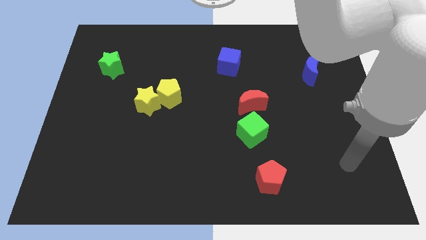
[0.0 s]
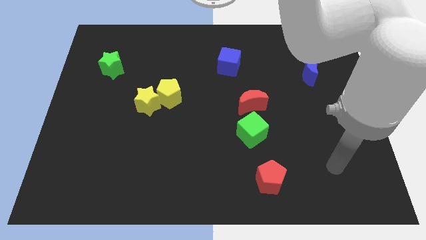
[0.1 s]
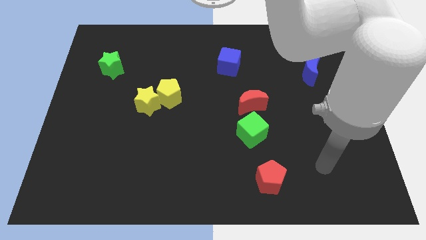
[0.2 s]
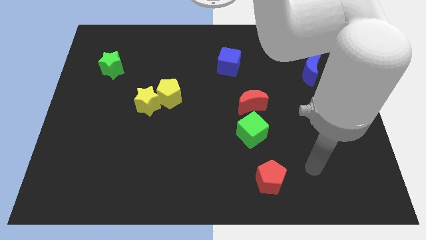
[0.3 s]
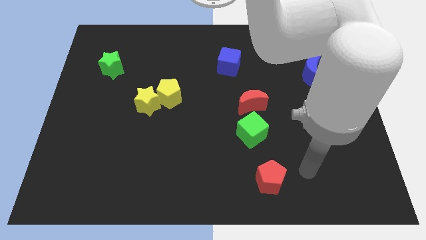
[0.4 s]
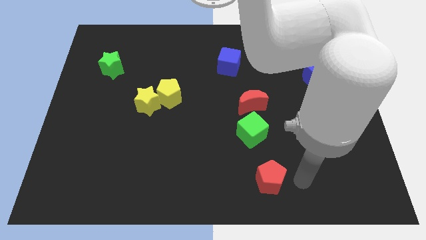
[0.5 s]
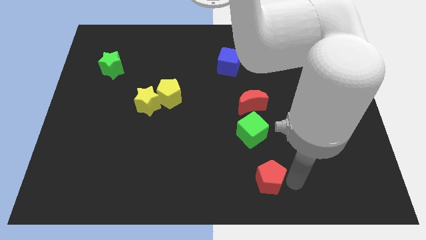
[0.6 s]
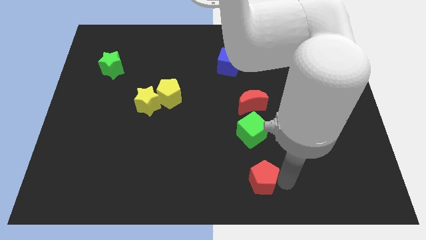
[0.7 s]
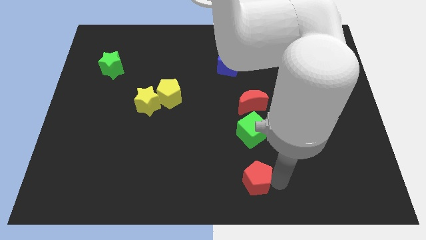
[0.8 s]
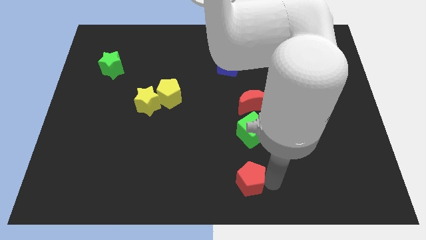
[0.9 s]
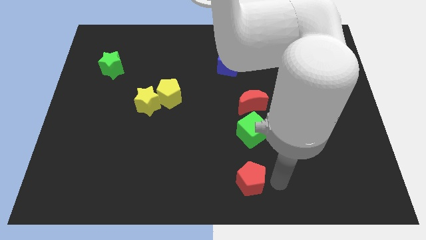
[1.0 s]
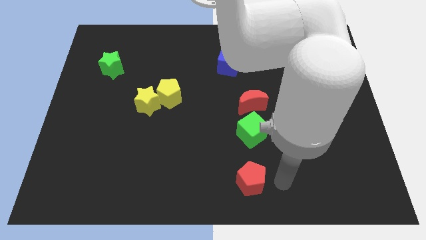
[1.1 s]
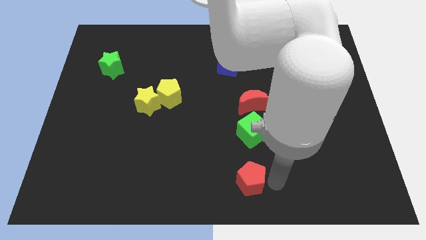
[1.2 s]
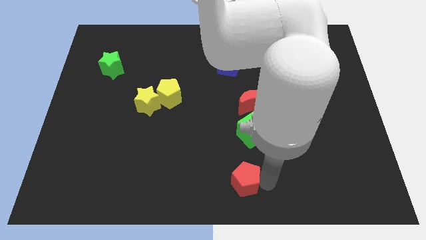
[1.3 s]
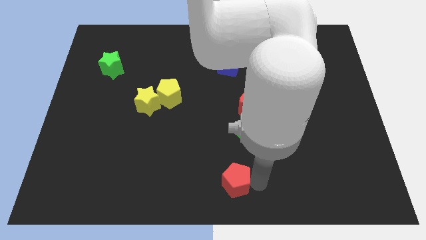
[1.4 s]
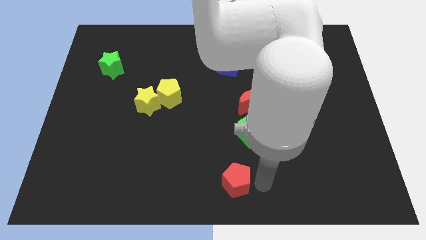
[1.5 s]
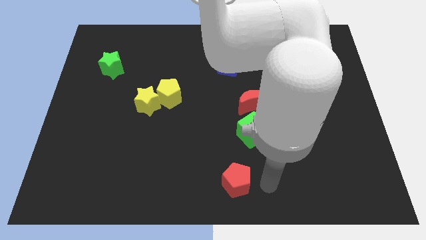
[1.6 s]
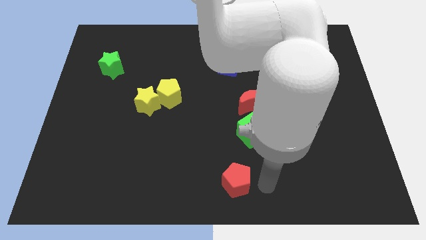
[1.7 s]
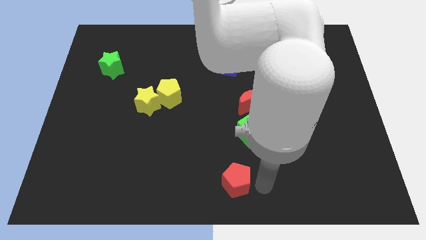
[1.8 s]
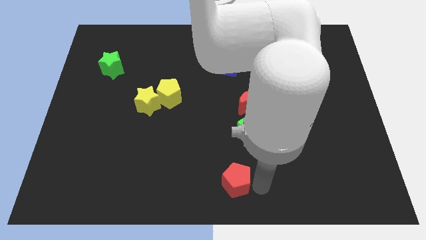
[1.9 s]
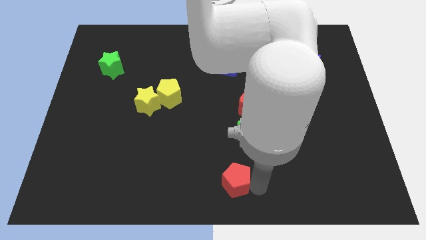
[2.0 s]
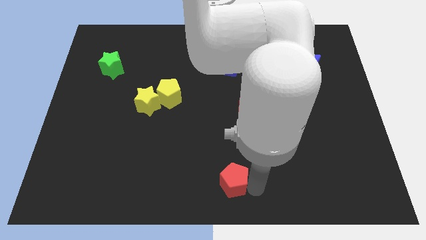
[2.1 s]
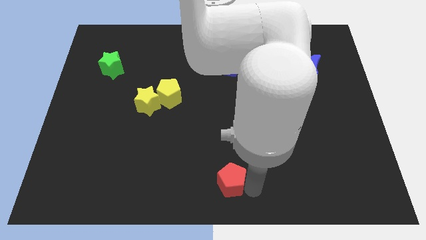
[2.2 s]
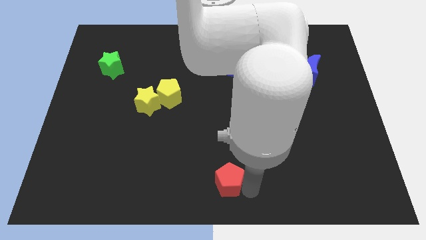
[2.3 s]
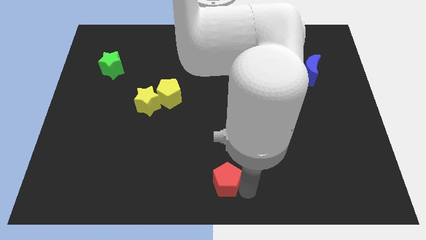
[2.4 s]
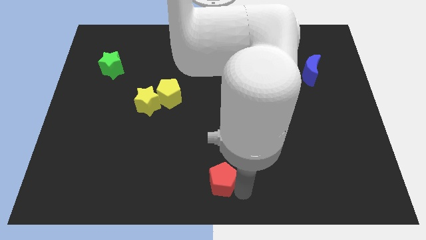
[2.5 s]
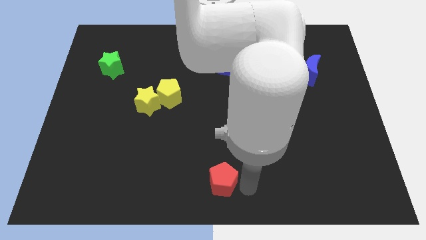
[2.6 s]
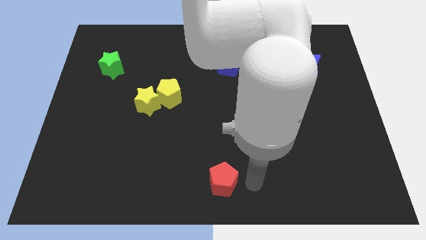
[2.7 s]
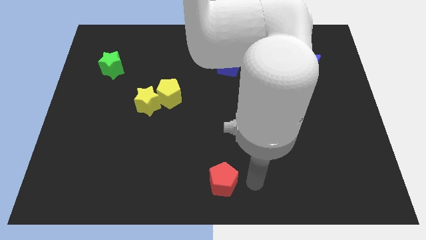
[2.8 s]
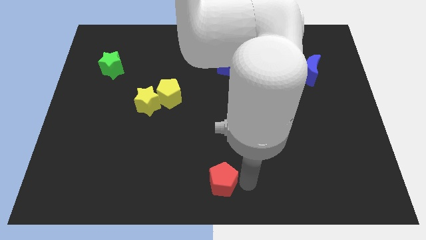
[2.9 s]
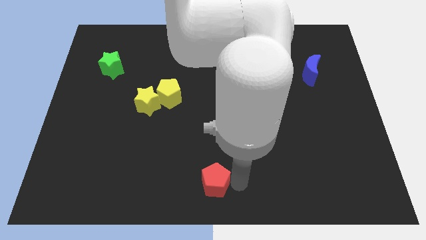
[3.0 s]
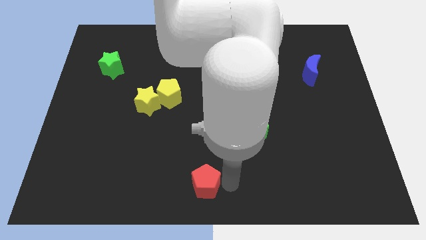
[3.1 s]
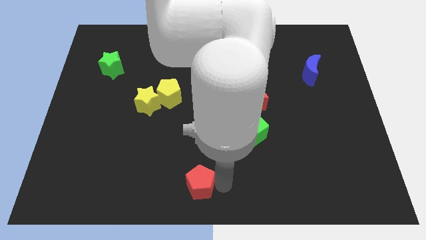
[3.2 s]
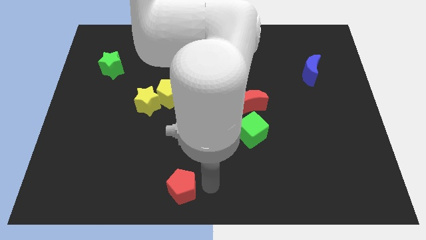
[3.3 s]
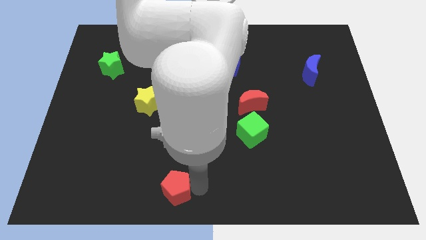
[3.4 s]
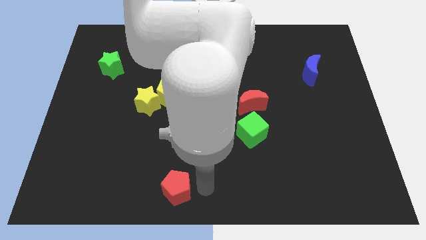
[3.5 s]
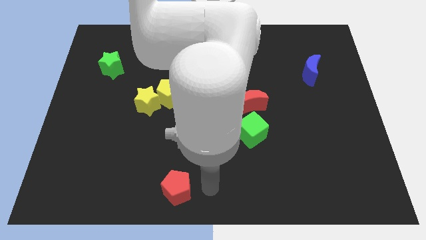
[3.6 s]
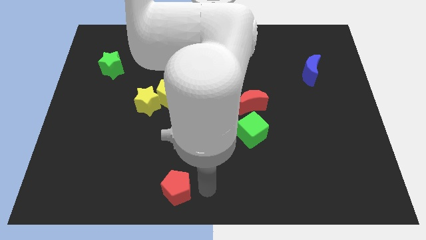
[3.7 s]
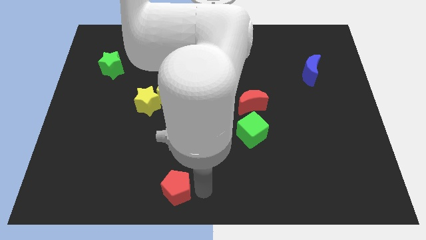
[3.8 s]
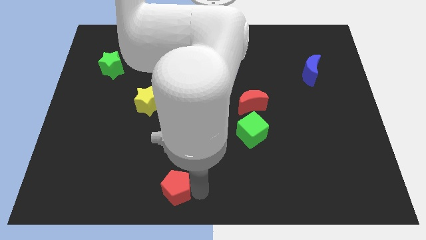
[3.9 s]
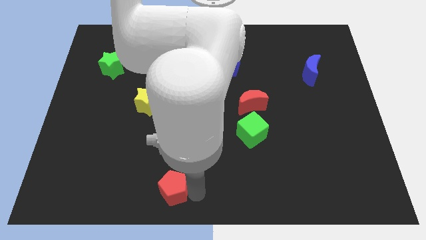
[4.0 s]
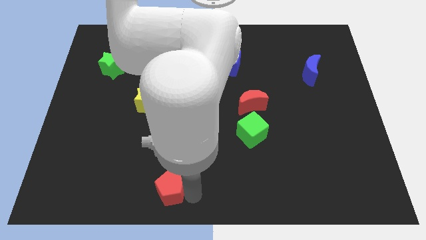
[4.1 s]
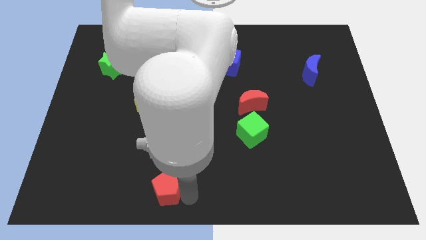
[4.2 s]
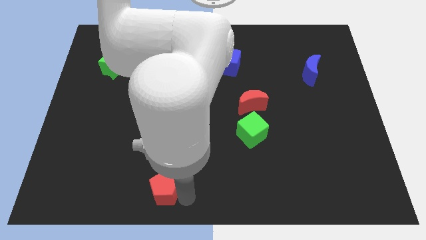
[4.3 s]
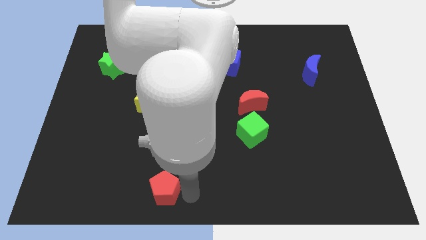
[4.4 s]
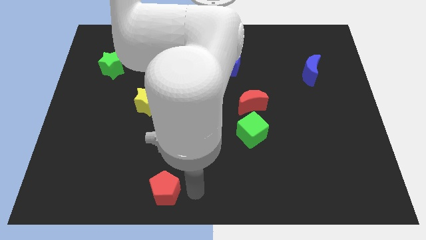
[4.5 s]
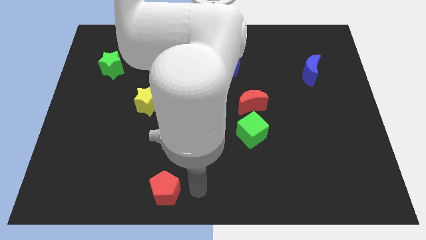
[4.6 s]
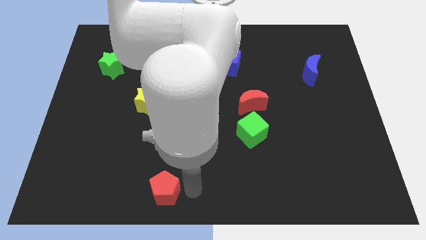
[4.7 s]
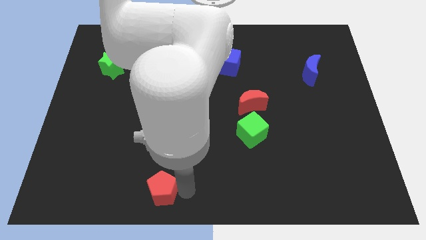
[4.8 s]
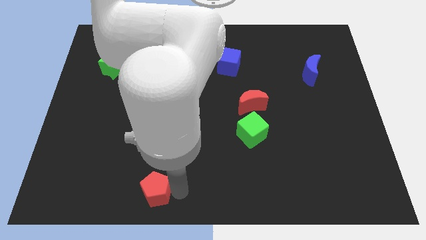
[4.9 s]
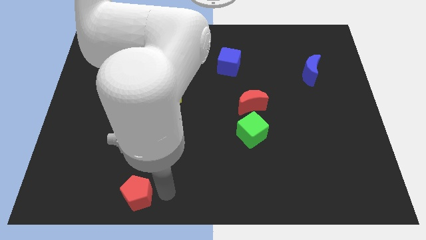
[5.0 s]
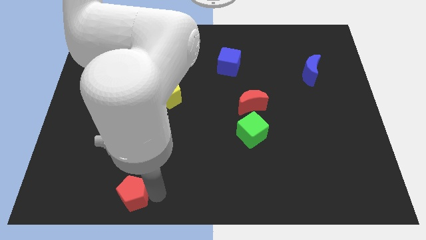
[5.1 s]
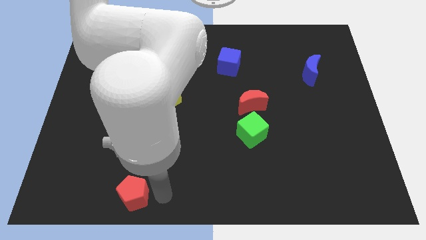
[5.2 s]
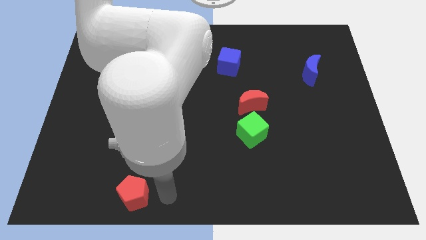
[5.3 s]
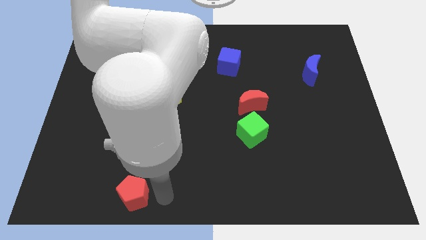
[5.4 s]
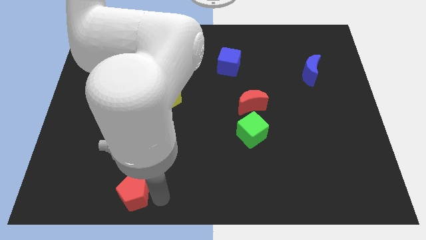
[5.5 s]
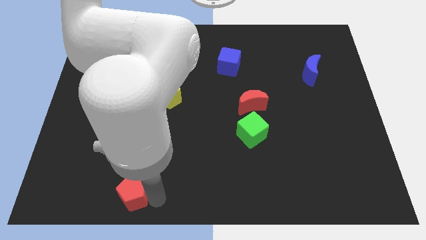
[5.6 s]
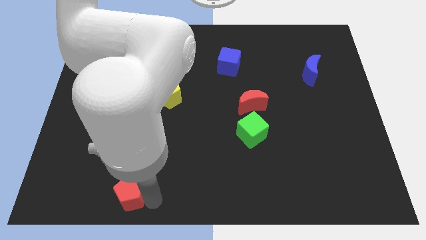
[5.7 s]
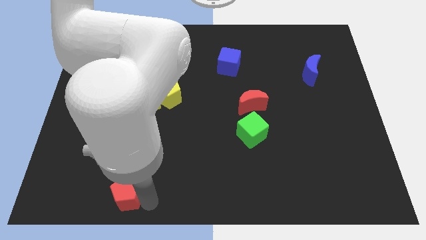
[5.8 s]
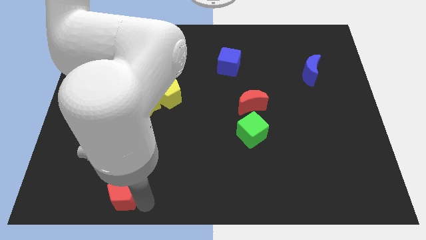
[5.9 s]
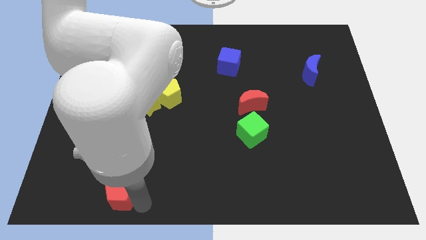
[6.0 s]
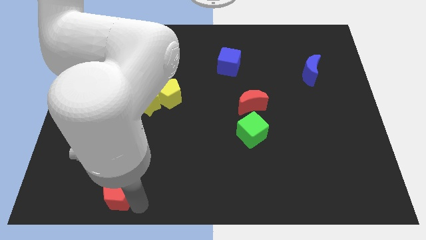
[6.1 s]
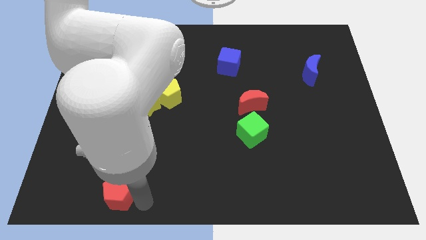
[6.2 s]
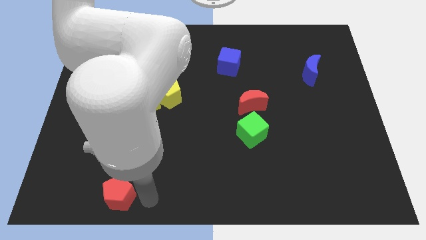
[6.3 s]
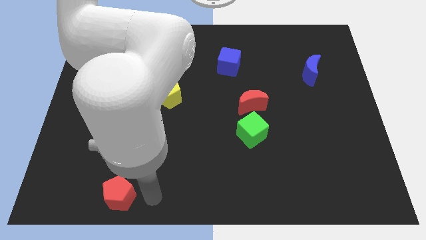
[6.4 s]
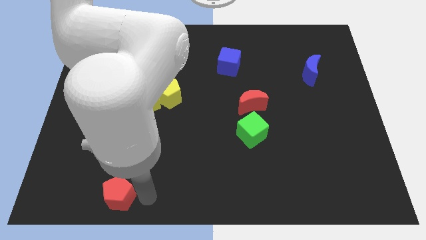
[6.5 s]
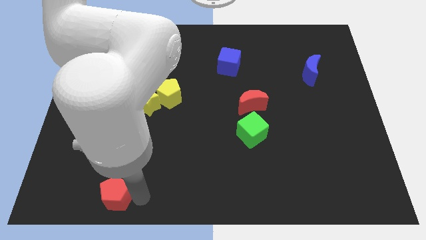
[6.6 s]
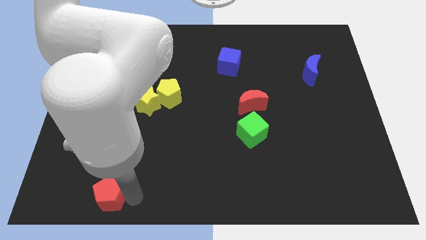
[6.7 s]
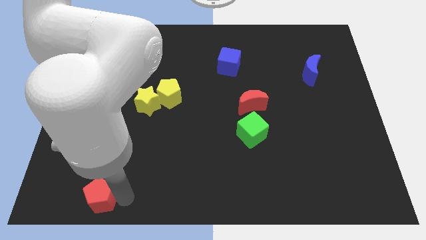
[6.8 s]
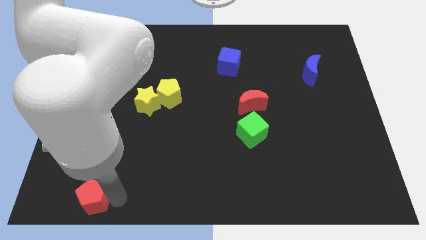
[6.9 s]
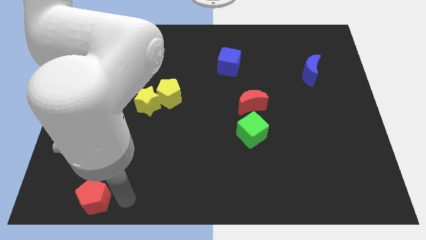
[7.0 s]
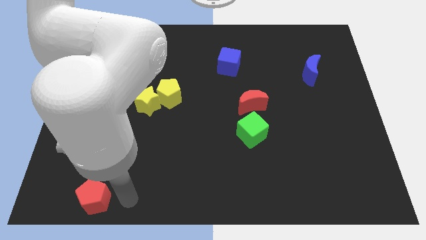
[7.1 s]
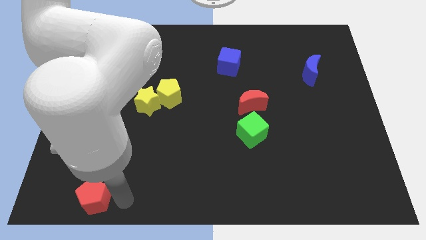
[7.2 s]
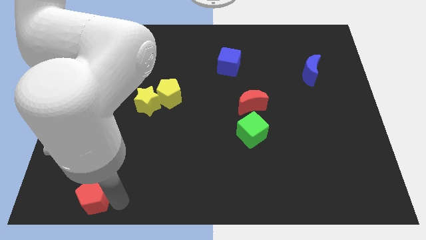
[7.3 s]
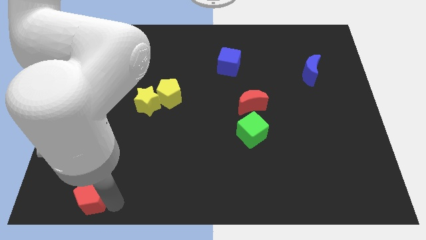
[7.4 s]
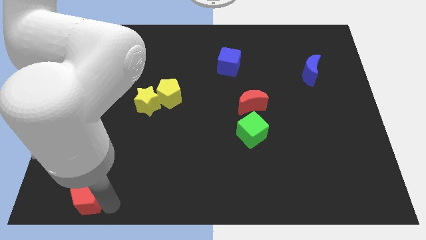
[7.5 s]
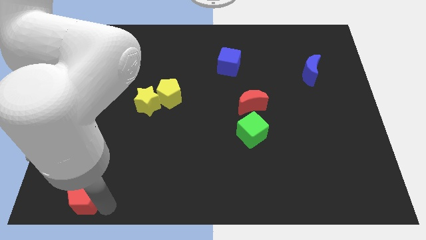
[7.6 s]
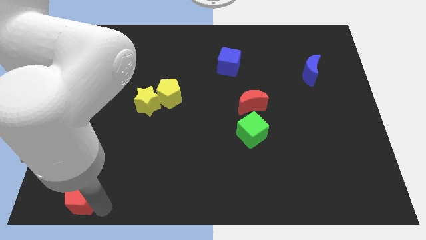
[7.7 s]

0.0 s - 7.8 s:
push the red pentagon to the bottom left of the board
